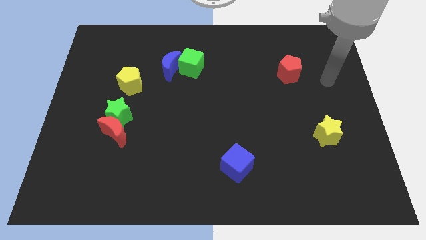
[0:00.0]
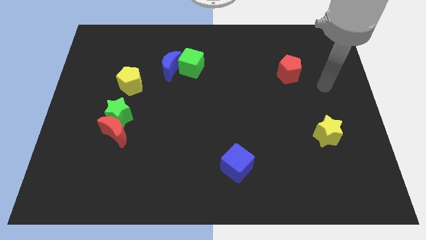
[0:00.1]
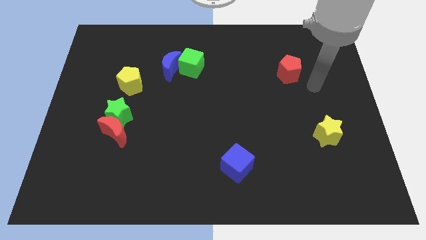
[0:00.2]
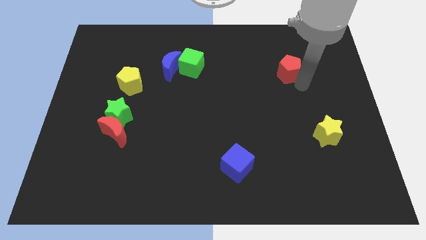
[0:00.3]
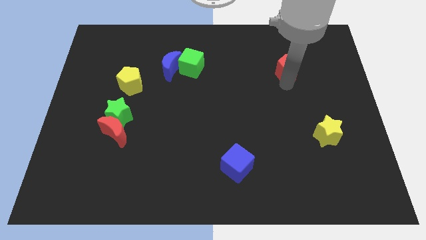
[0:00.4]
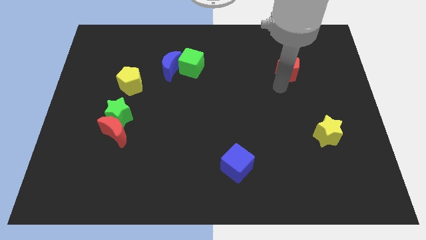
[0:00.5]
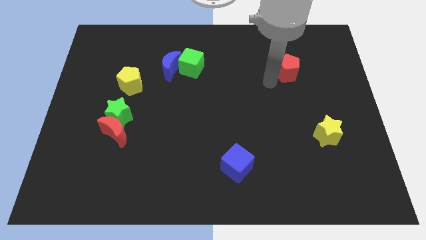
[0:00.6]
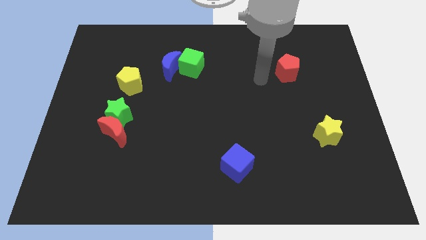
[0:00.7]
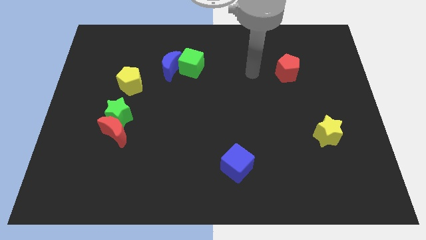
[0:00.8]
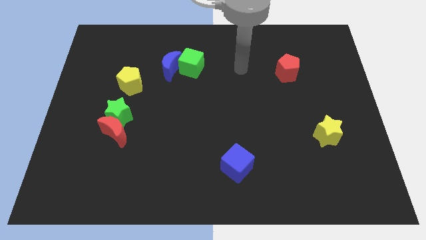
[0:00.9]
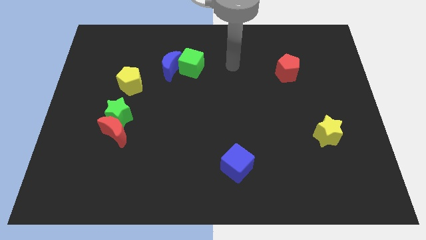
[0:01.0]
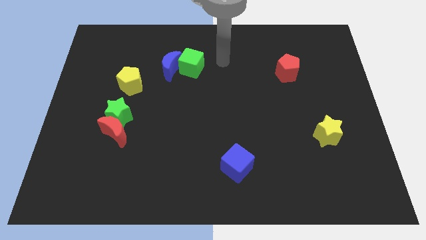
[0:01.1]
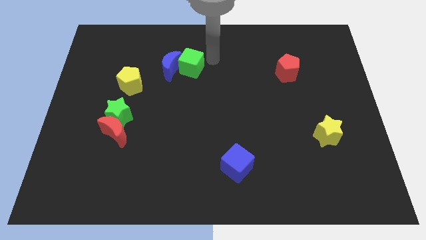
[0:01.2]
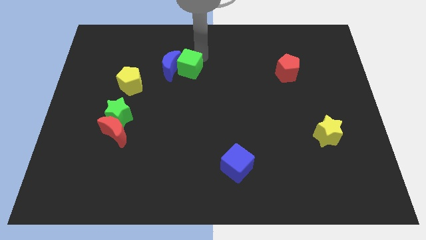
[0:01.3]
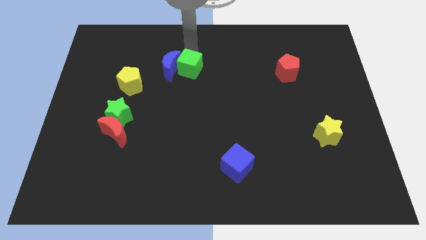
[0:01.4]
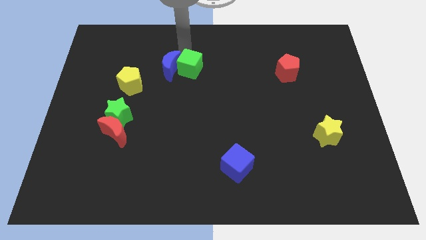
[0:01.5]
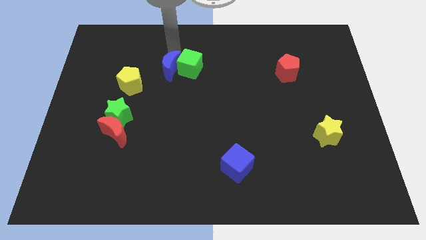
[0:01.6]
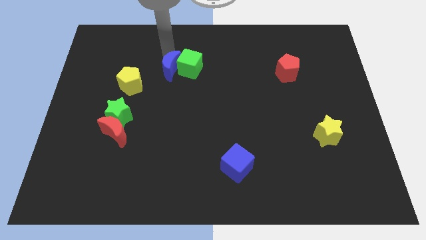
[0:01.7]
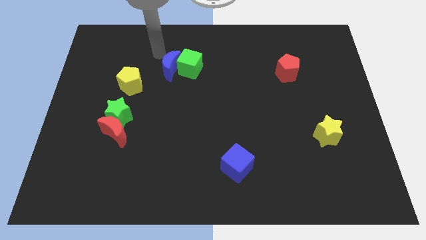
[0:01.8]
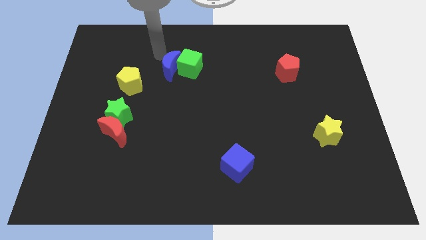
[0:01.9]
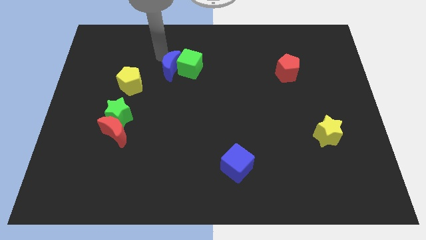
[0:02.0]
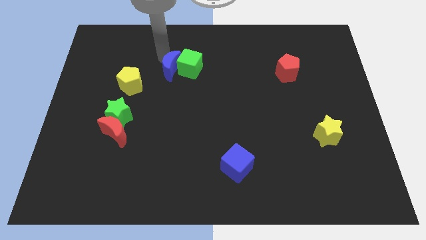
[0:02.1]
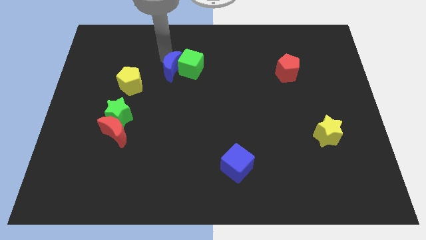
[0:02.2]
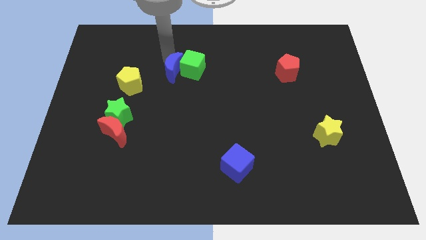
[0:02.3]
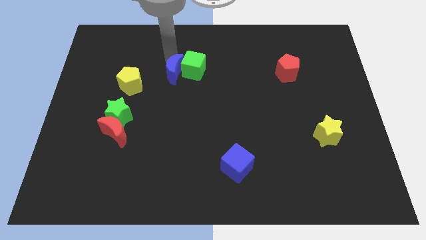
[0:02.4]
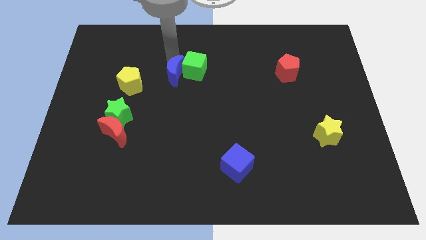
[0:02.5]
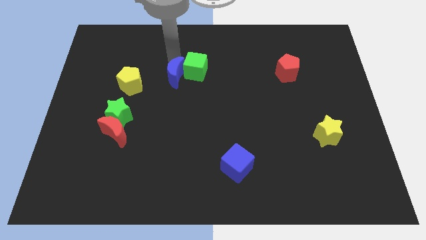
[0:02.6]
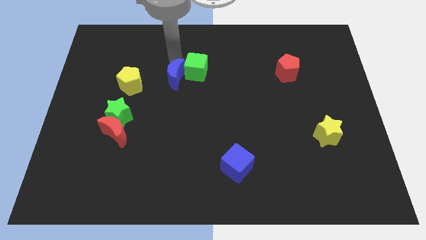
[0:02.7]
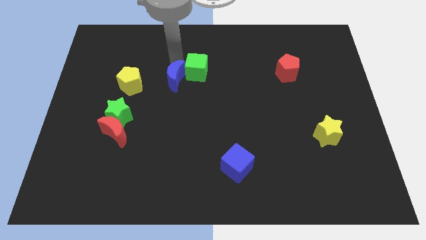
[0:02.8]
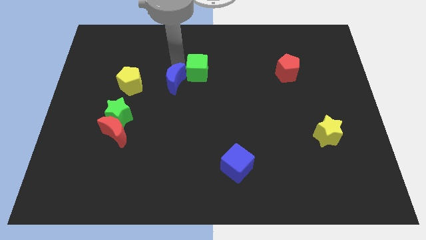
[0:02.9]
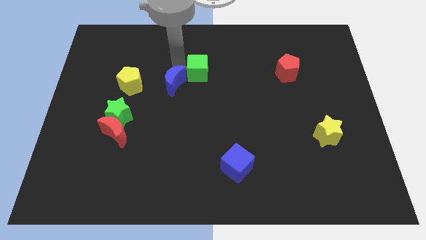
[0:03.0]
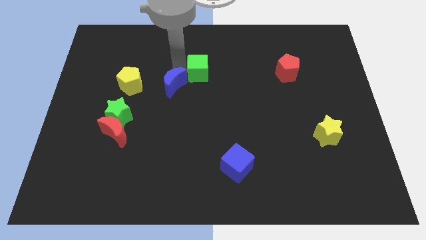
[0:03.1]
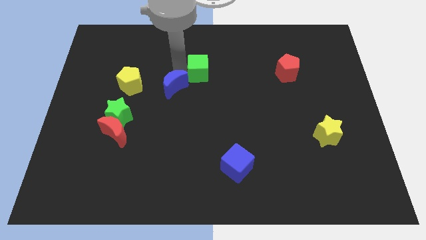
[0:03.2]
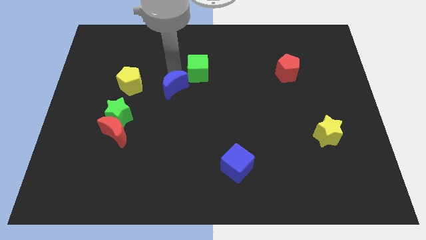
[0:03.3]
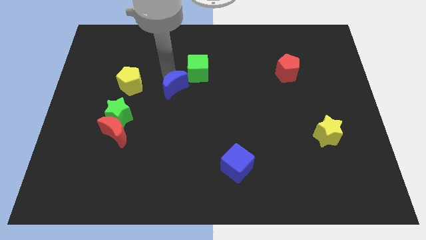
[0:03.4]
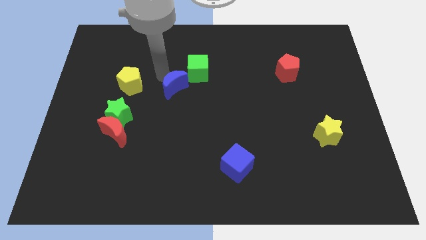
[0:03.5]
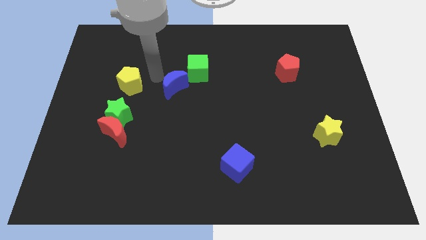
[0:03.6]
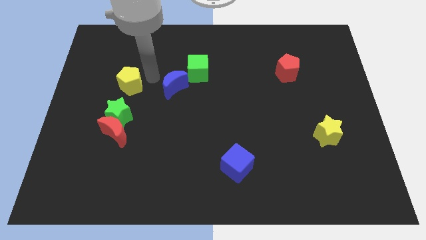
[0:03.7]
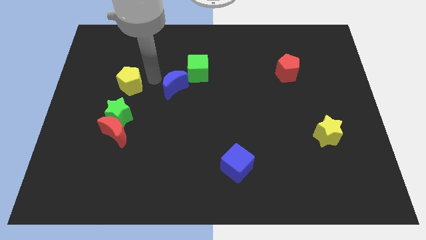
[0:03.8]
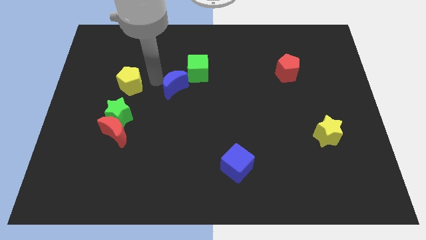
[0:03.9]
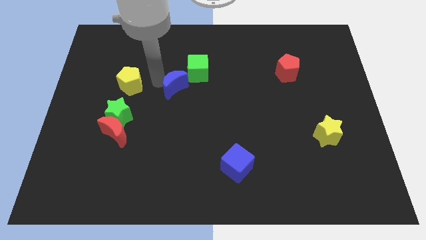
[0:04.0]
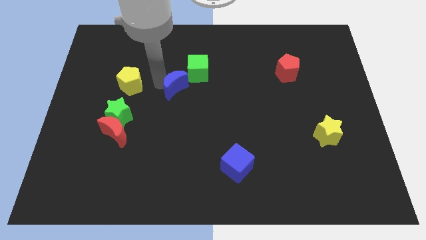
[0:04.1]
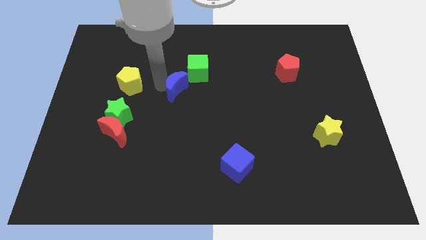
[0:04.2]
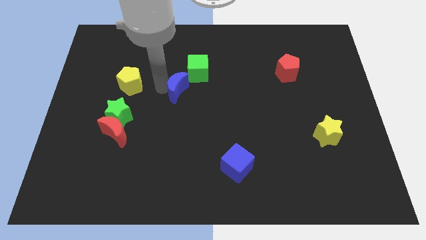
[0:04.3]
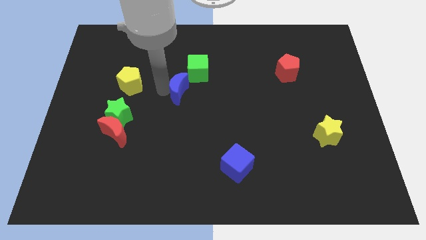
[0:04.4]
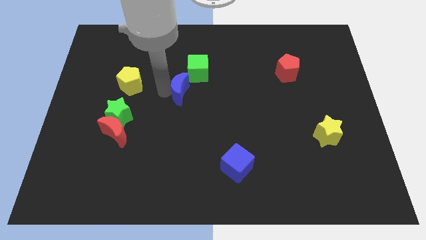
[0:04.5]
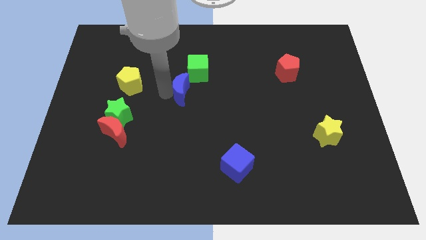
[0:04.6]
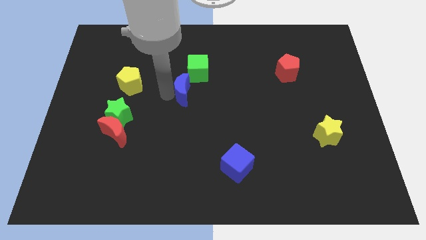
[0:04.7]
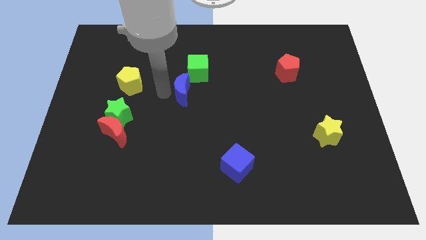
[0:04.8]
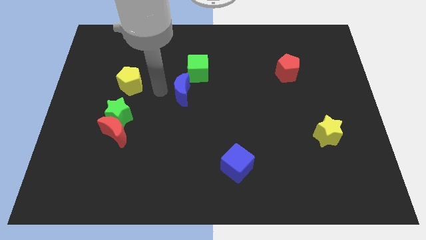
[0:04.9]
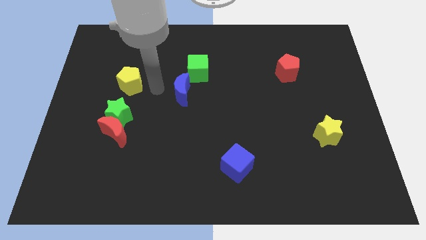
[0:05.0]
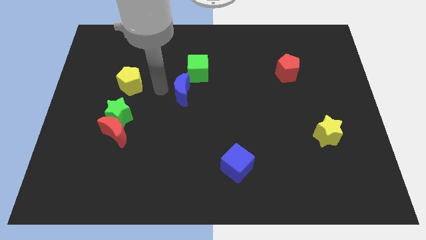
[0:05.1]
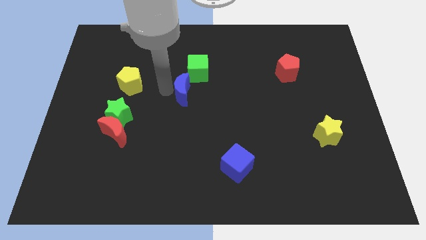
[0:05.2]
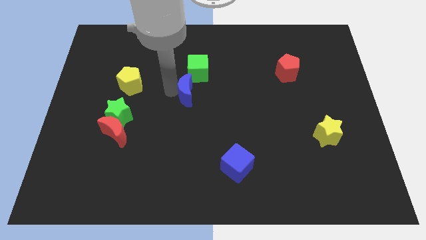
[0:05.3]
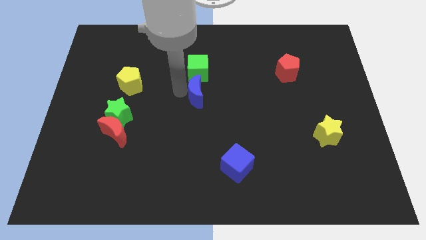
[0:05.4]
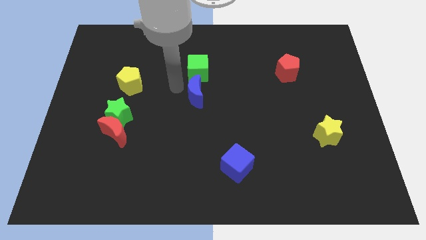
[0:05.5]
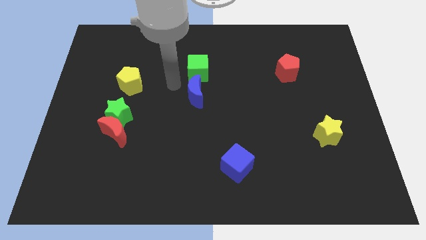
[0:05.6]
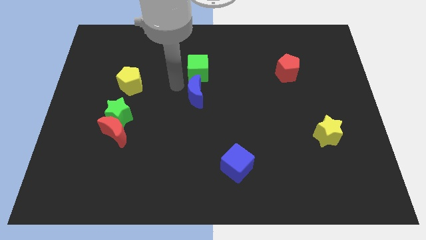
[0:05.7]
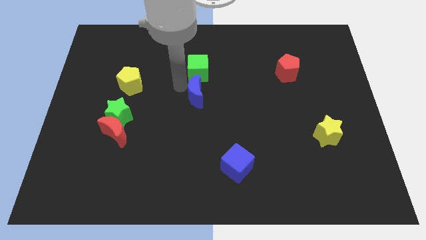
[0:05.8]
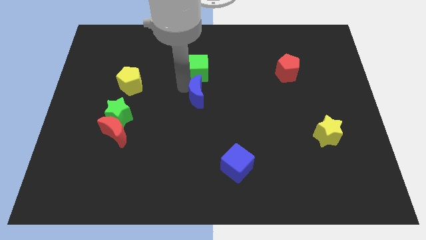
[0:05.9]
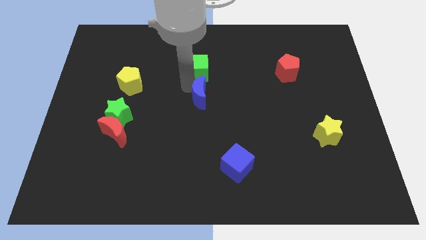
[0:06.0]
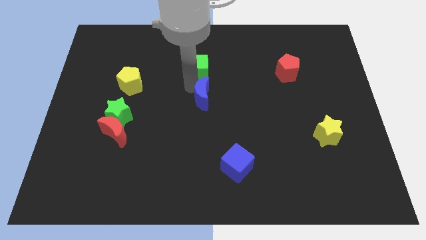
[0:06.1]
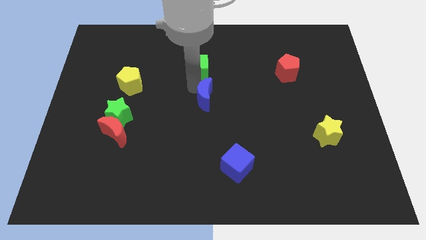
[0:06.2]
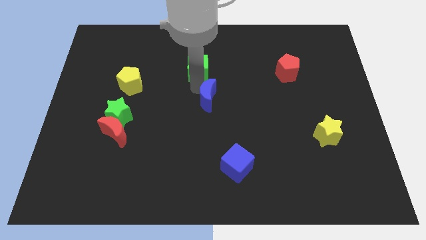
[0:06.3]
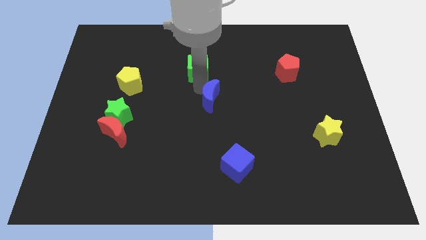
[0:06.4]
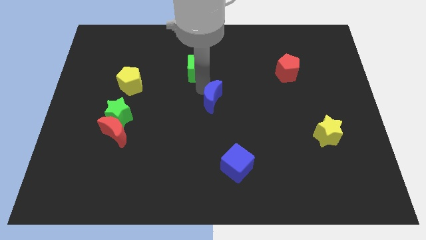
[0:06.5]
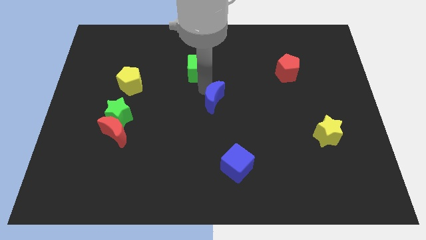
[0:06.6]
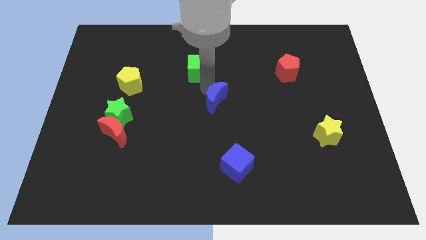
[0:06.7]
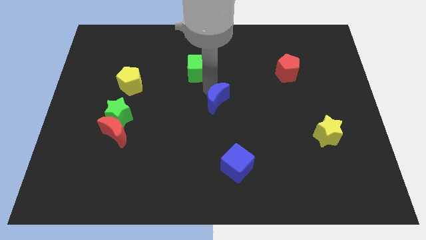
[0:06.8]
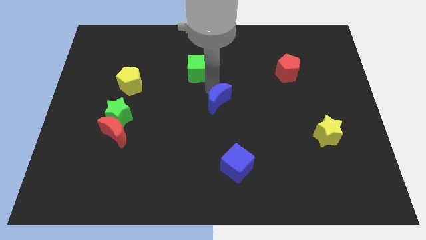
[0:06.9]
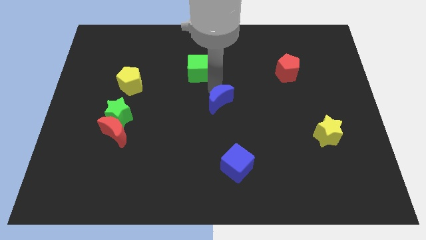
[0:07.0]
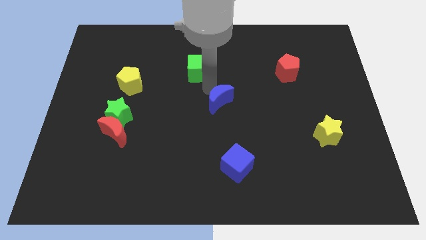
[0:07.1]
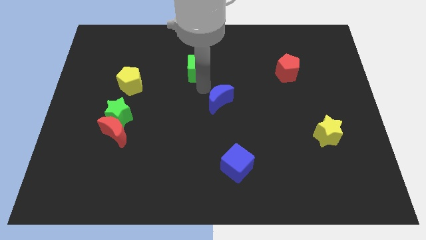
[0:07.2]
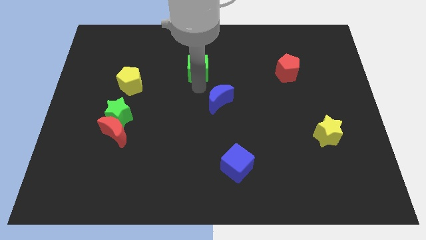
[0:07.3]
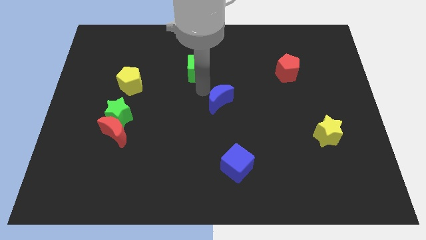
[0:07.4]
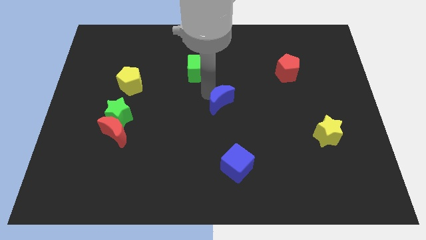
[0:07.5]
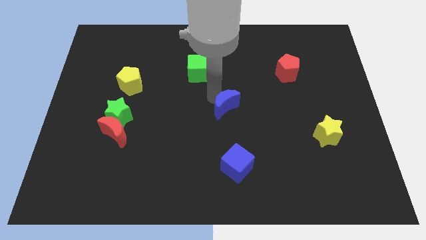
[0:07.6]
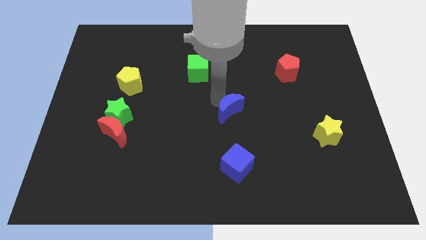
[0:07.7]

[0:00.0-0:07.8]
move the blue moon down and then to the right

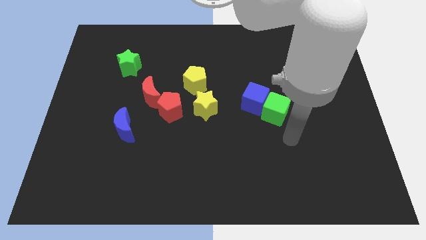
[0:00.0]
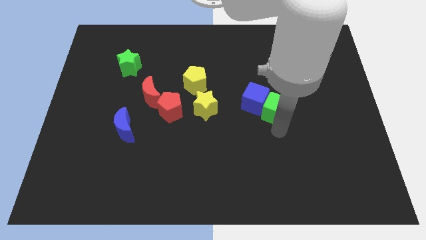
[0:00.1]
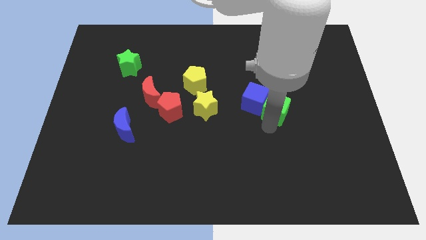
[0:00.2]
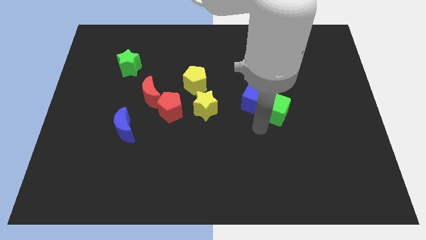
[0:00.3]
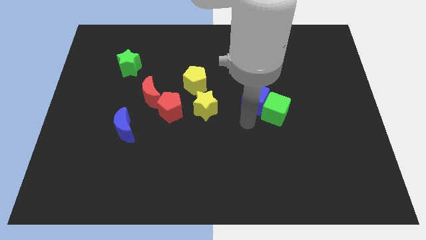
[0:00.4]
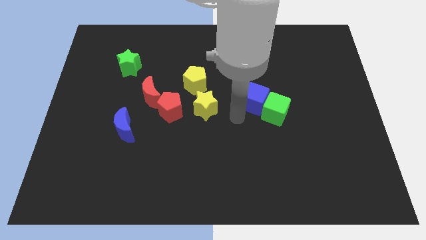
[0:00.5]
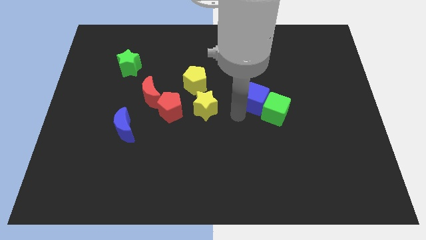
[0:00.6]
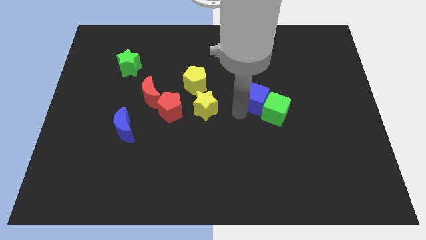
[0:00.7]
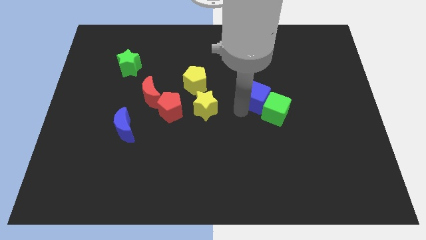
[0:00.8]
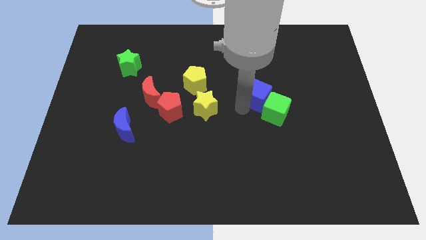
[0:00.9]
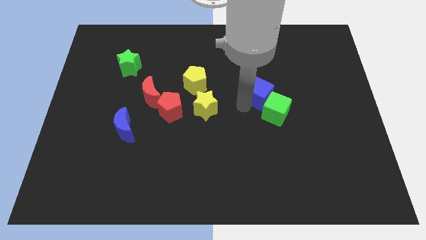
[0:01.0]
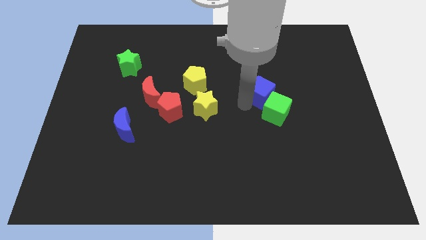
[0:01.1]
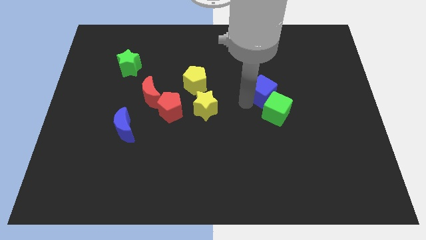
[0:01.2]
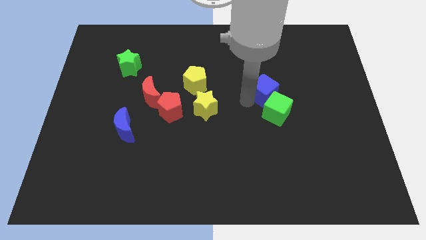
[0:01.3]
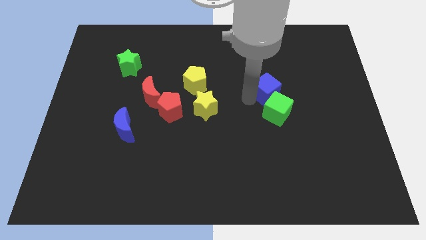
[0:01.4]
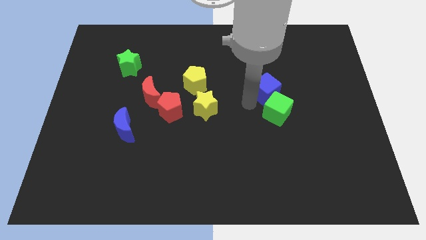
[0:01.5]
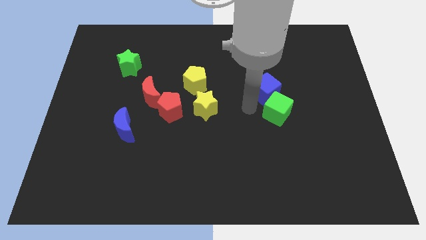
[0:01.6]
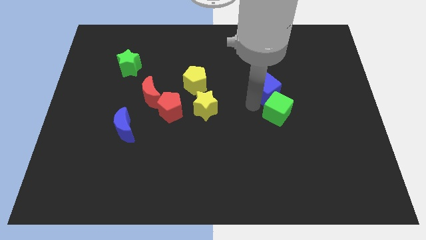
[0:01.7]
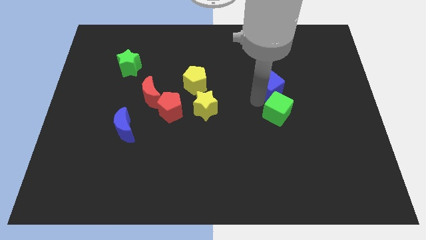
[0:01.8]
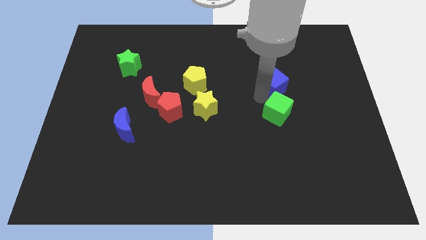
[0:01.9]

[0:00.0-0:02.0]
slightly slide the blue cube diagonally up and right
